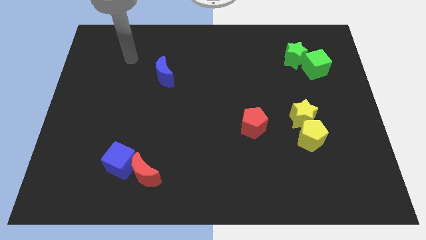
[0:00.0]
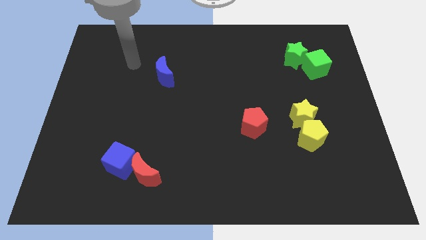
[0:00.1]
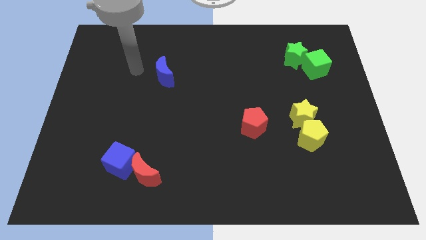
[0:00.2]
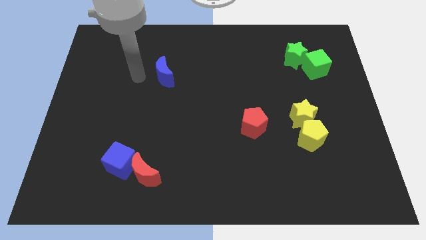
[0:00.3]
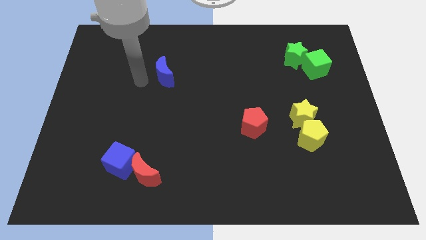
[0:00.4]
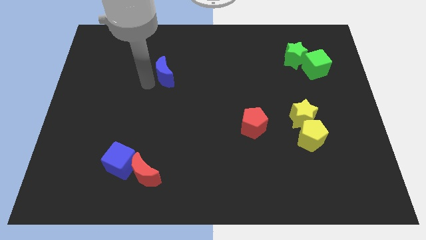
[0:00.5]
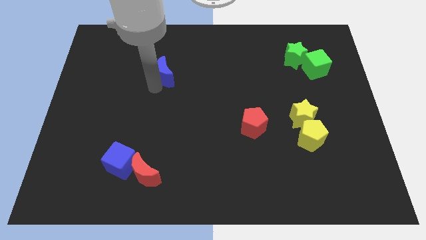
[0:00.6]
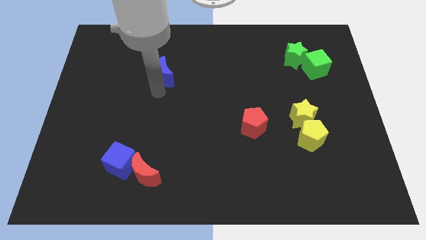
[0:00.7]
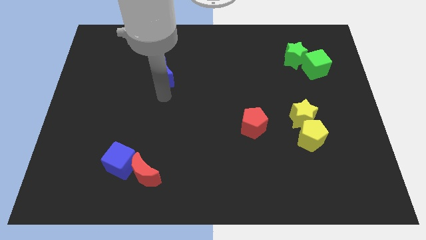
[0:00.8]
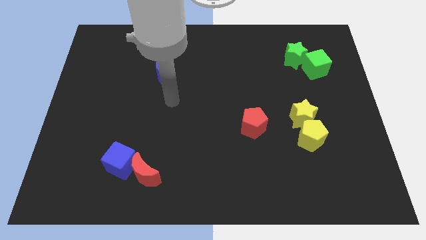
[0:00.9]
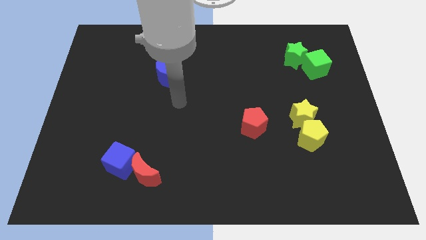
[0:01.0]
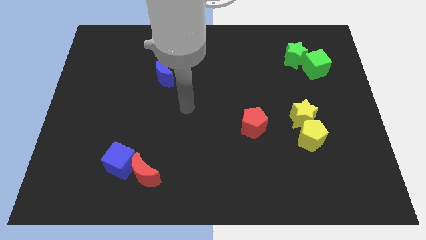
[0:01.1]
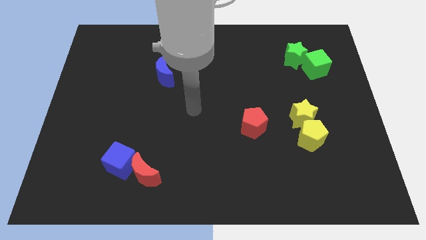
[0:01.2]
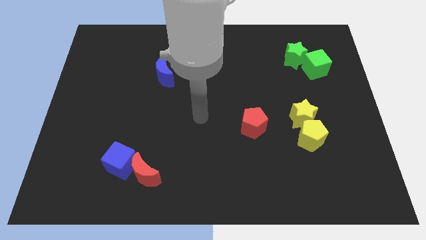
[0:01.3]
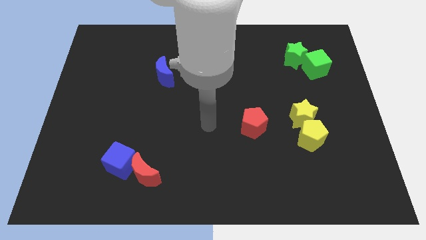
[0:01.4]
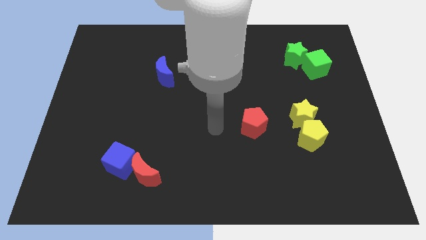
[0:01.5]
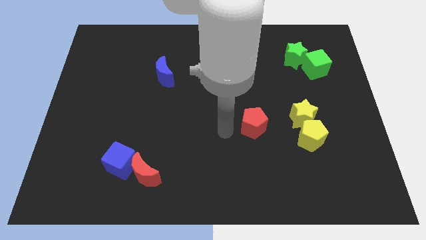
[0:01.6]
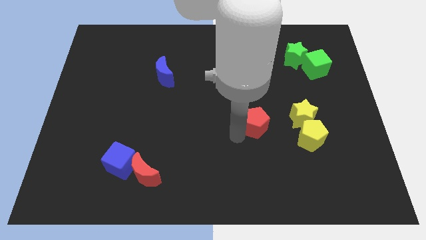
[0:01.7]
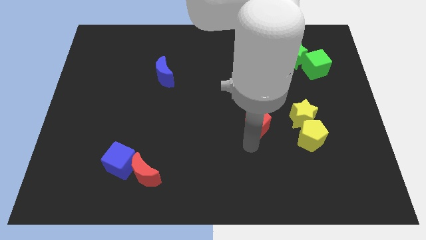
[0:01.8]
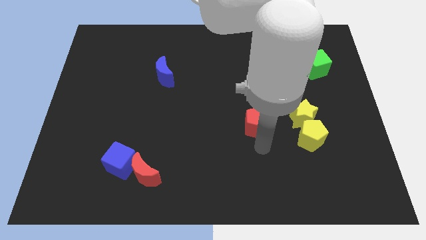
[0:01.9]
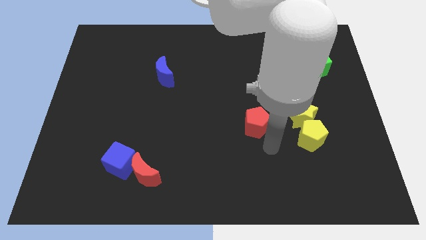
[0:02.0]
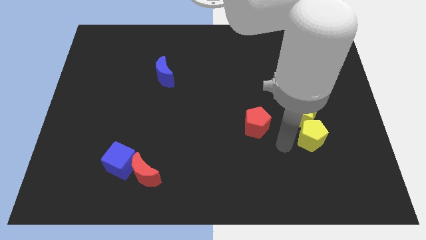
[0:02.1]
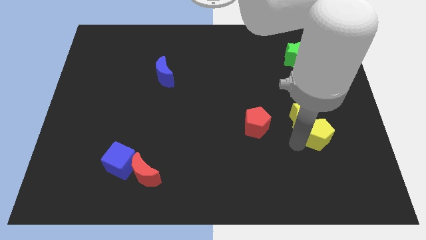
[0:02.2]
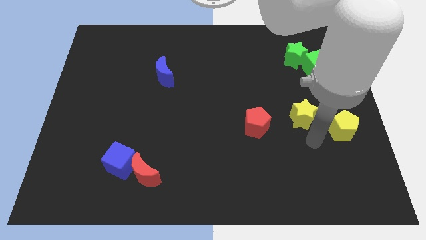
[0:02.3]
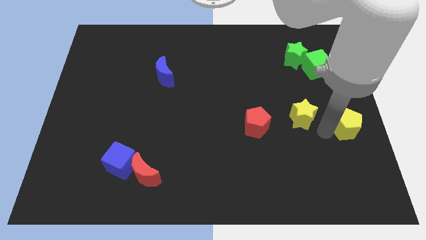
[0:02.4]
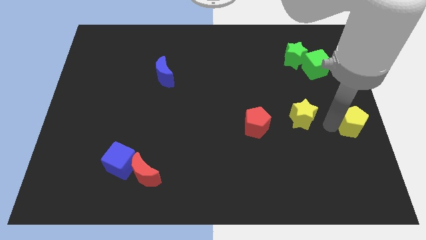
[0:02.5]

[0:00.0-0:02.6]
move the yellow star away from the yellow pentagon

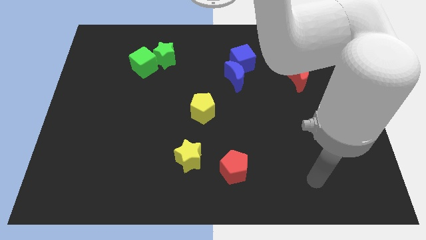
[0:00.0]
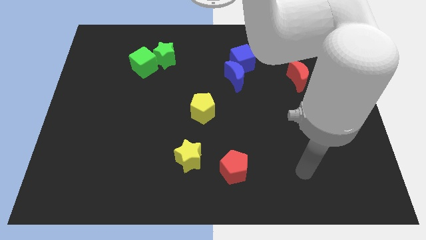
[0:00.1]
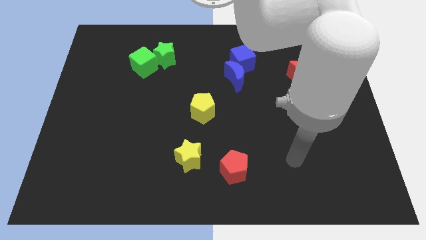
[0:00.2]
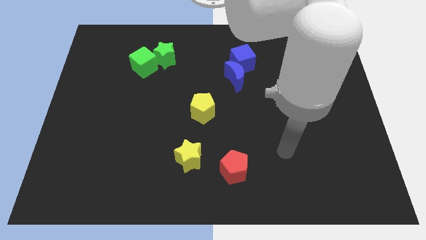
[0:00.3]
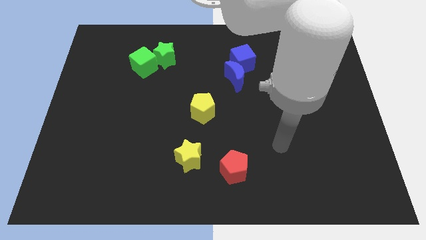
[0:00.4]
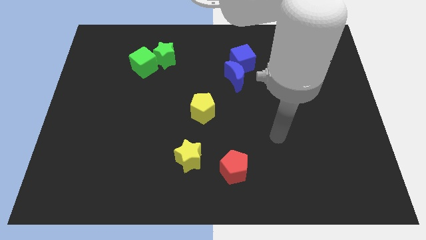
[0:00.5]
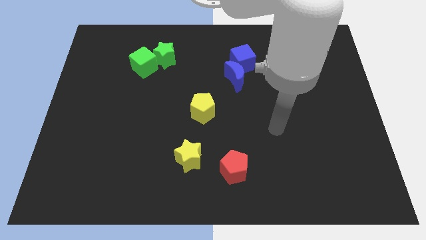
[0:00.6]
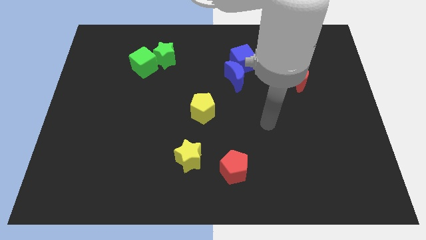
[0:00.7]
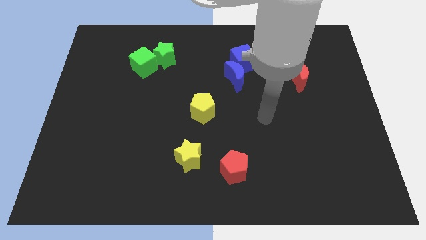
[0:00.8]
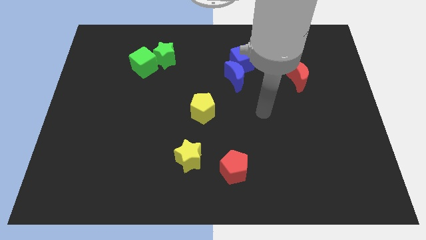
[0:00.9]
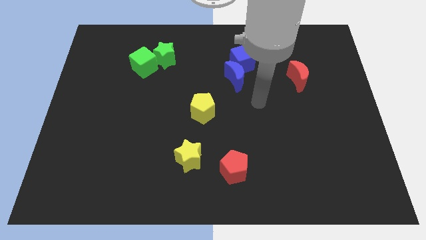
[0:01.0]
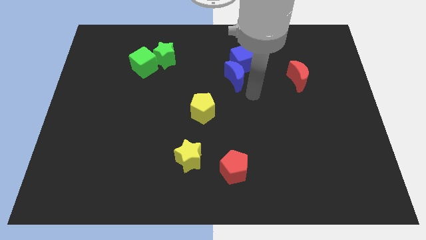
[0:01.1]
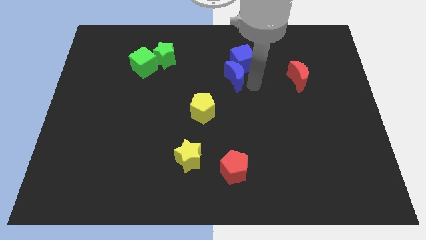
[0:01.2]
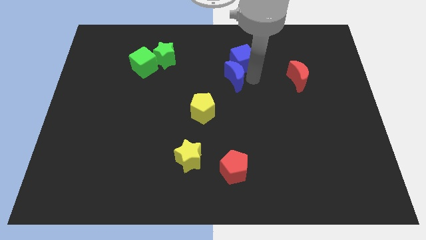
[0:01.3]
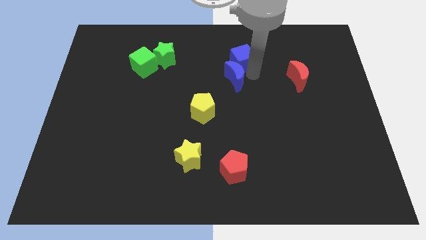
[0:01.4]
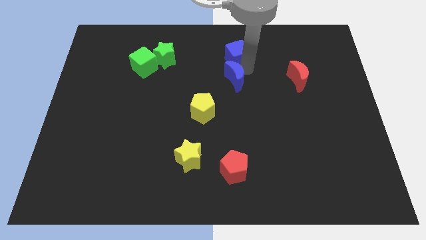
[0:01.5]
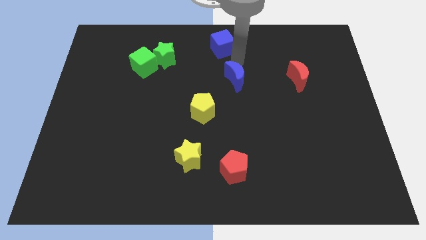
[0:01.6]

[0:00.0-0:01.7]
pull the blue moon apart from the blue cube

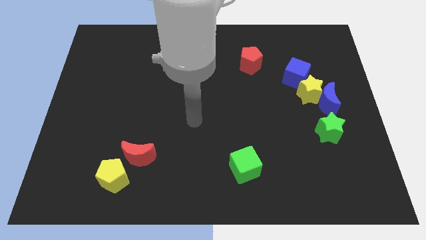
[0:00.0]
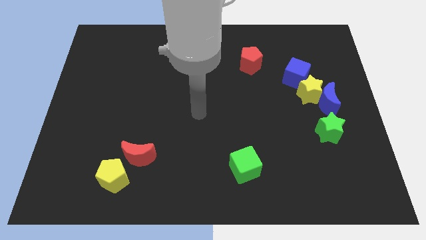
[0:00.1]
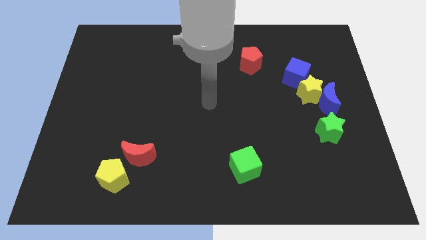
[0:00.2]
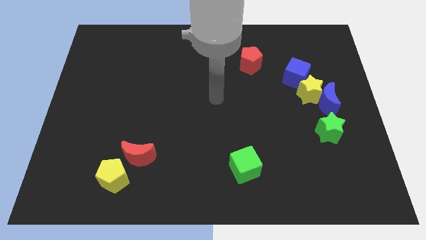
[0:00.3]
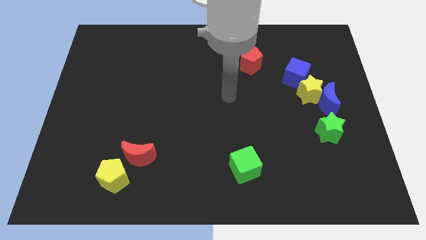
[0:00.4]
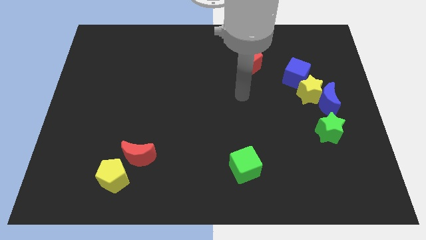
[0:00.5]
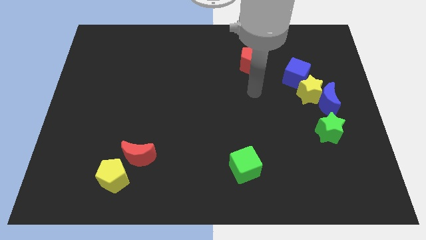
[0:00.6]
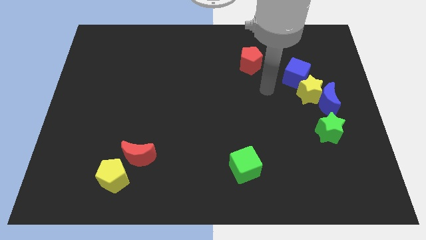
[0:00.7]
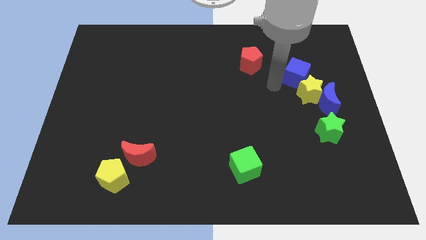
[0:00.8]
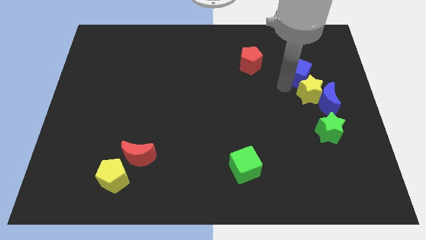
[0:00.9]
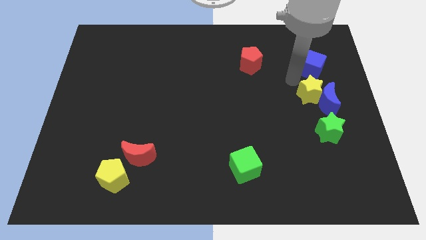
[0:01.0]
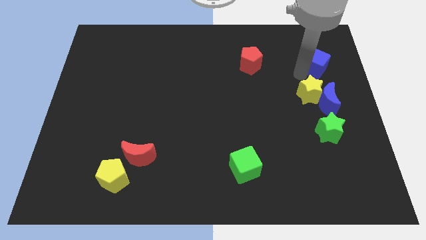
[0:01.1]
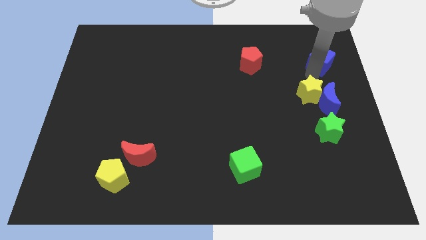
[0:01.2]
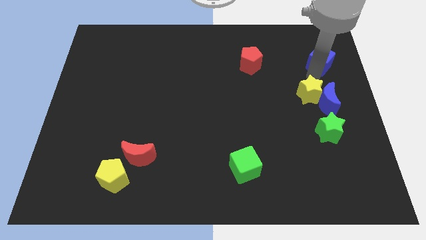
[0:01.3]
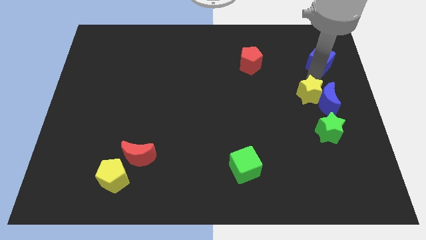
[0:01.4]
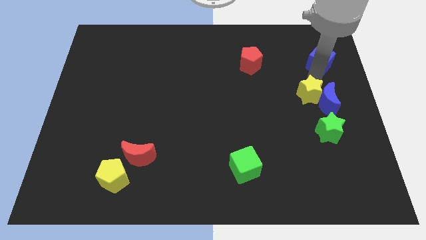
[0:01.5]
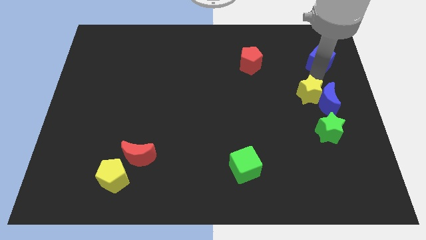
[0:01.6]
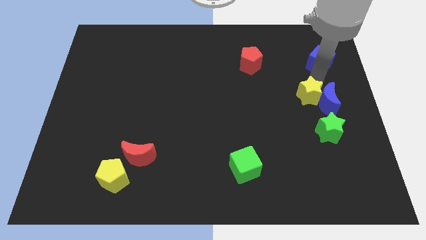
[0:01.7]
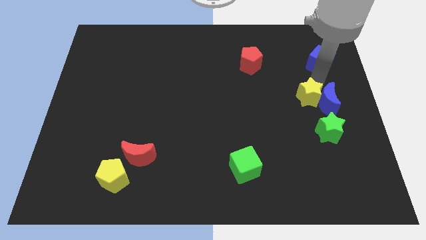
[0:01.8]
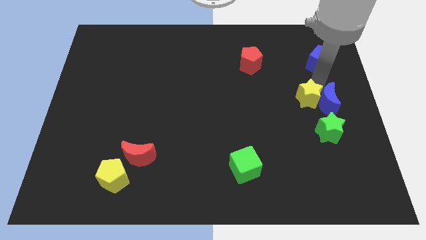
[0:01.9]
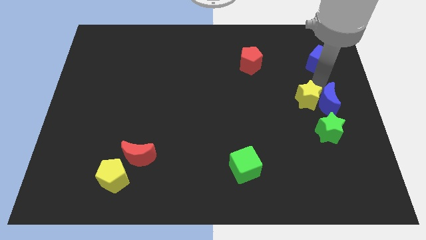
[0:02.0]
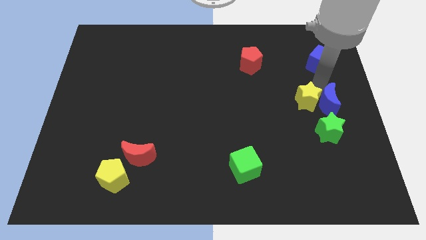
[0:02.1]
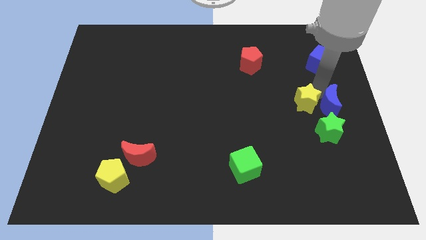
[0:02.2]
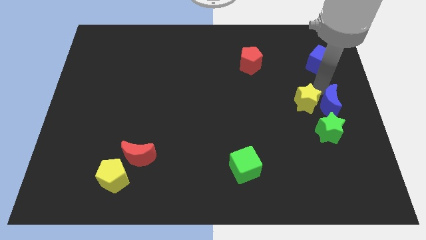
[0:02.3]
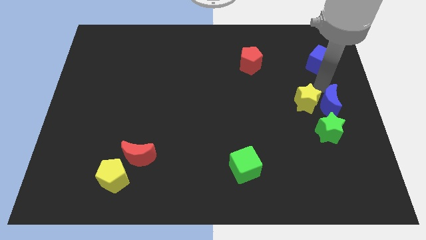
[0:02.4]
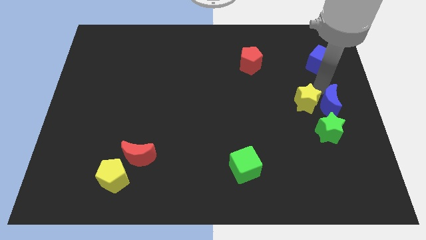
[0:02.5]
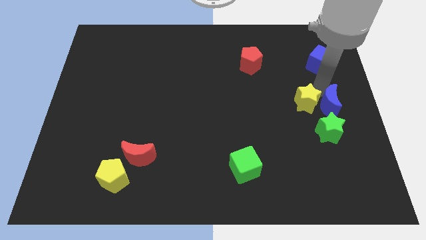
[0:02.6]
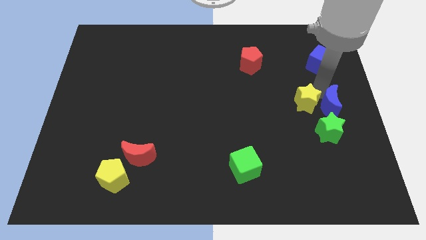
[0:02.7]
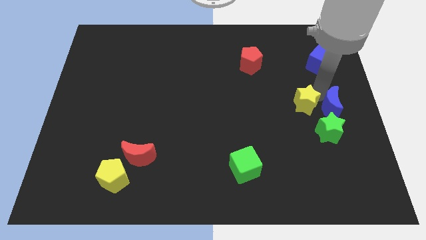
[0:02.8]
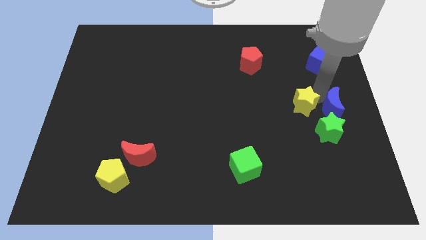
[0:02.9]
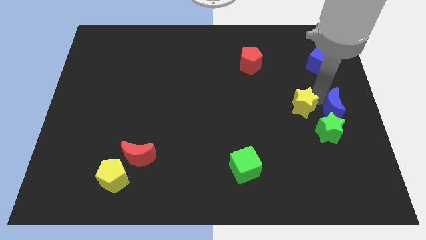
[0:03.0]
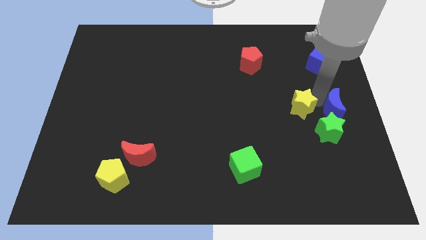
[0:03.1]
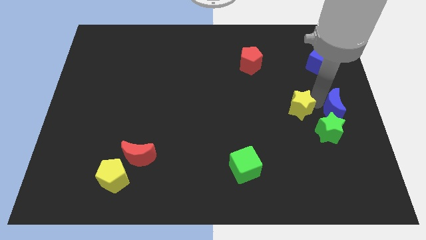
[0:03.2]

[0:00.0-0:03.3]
pull the yellow star apart from the blue moon and blue cube

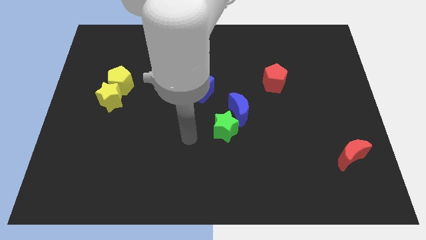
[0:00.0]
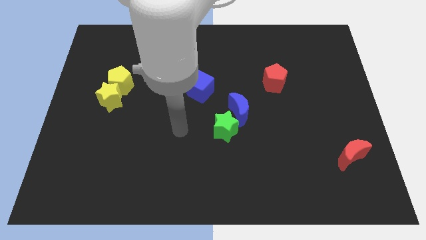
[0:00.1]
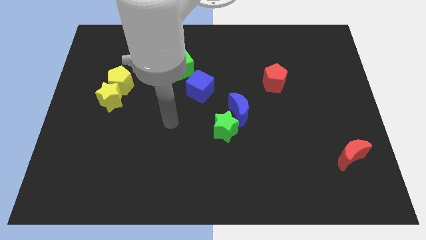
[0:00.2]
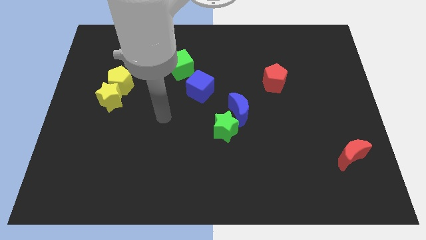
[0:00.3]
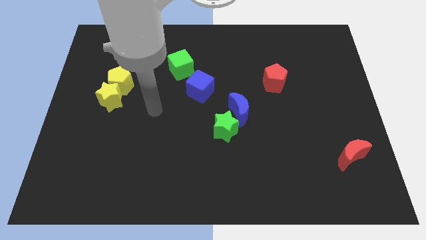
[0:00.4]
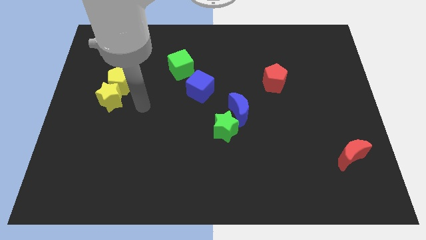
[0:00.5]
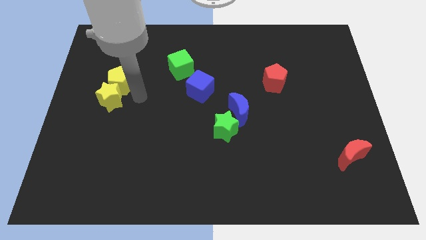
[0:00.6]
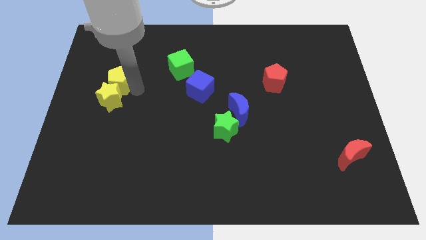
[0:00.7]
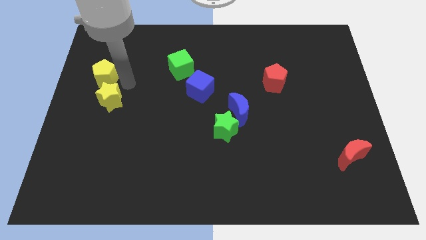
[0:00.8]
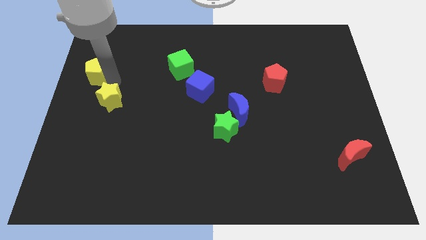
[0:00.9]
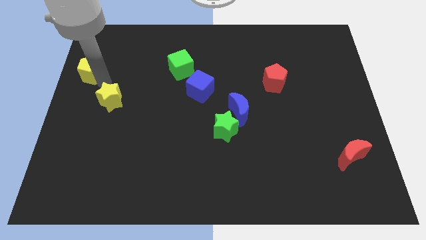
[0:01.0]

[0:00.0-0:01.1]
separate the yellow star from the yellow pentagon

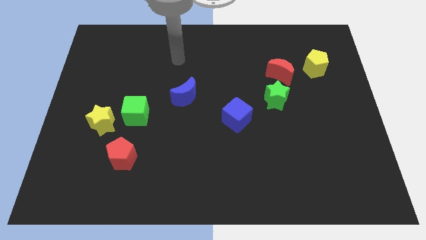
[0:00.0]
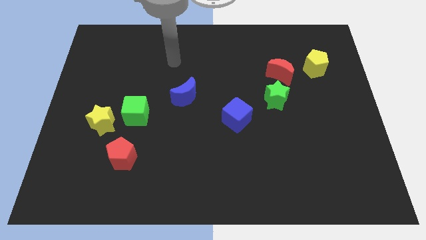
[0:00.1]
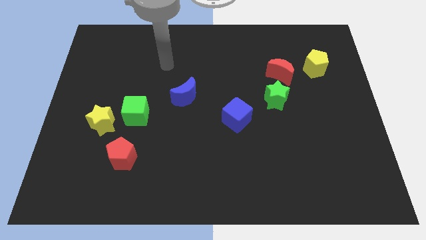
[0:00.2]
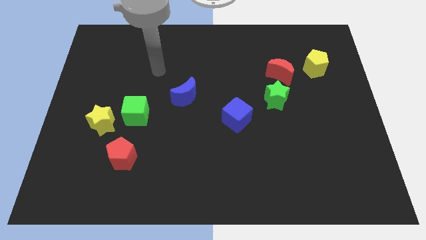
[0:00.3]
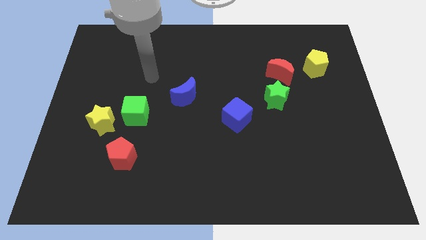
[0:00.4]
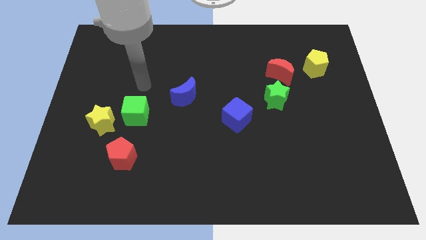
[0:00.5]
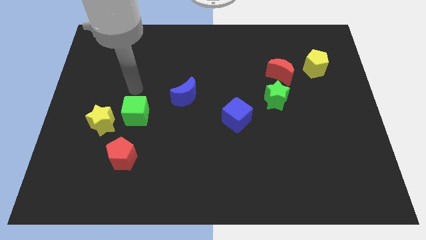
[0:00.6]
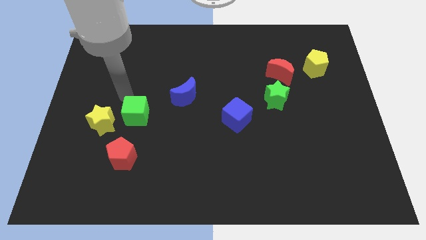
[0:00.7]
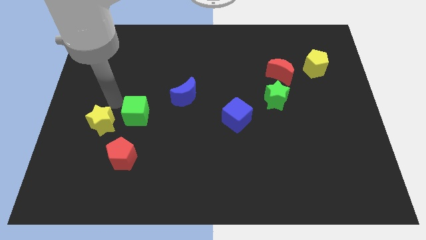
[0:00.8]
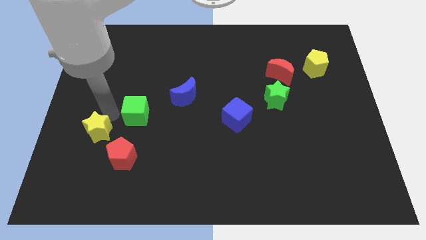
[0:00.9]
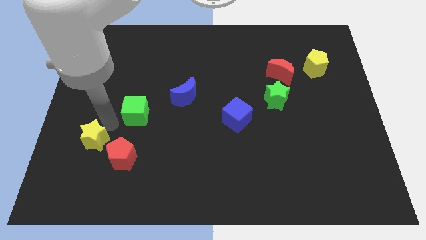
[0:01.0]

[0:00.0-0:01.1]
pull the green cube apart from the yellow star
